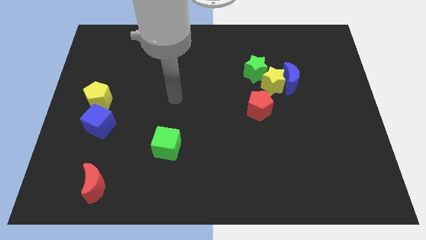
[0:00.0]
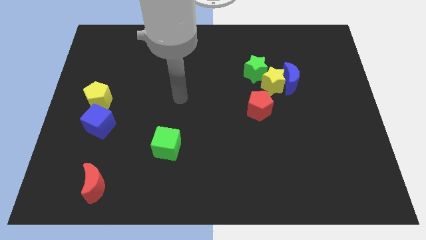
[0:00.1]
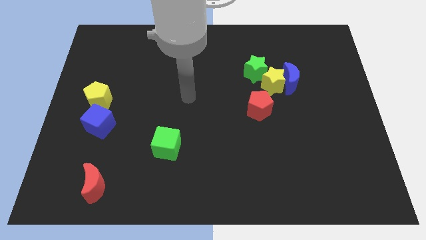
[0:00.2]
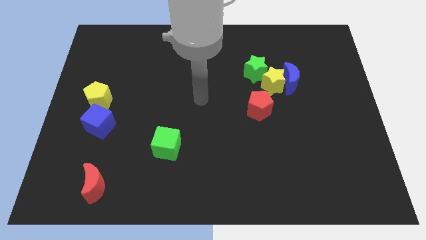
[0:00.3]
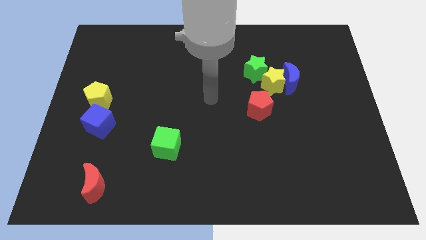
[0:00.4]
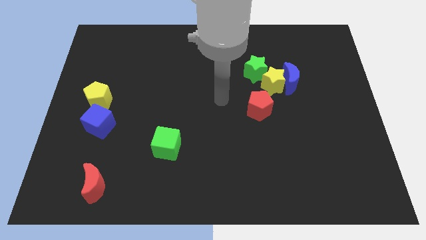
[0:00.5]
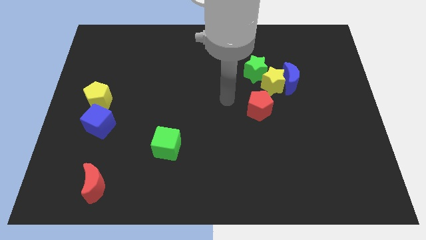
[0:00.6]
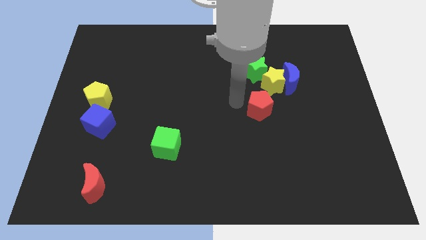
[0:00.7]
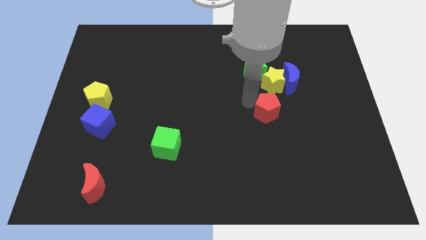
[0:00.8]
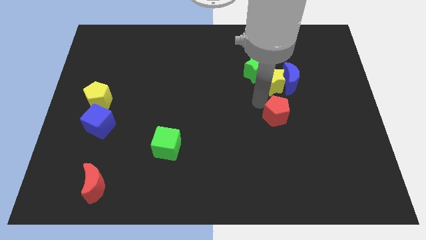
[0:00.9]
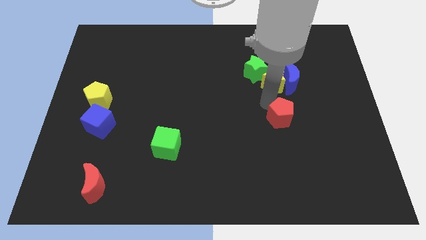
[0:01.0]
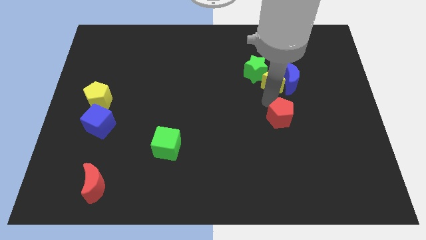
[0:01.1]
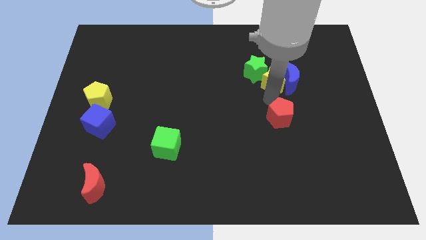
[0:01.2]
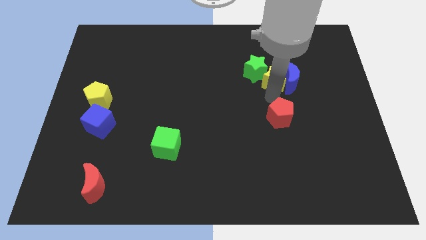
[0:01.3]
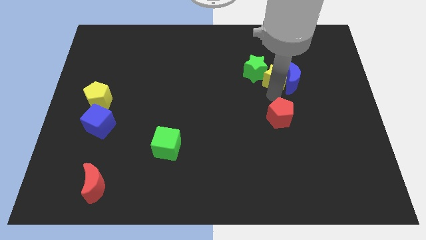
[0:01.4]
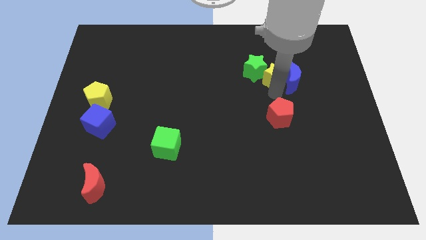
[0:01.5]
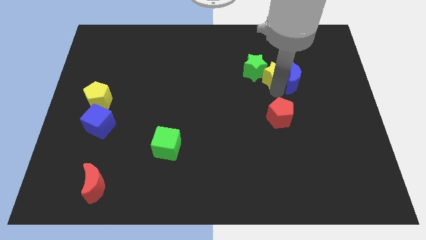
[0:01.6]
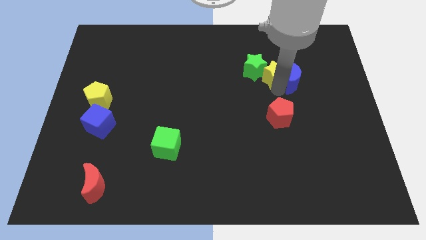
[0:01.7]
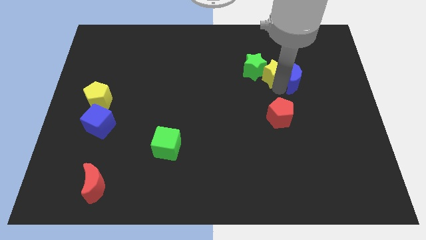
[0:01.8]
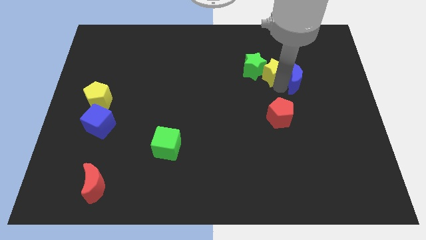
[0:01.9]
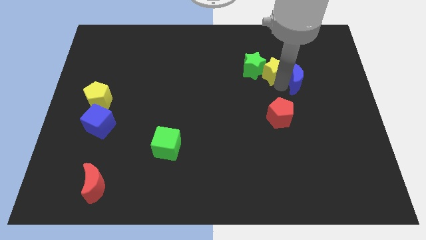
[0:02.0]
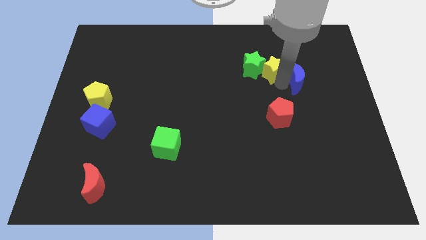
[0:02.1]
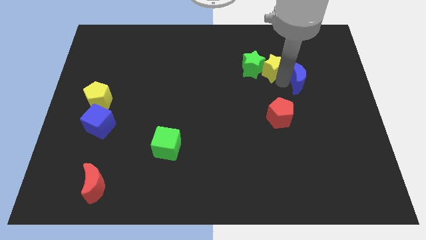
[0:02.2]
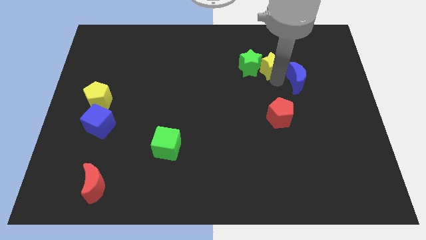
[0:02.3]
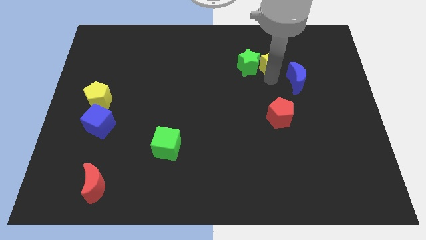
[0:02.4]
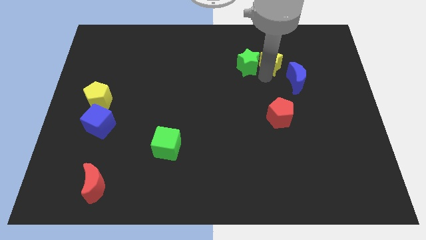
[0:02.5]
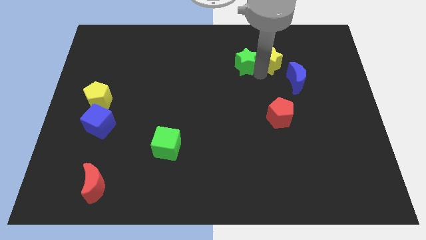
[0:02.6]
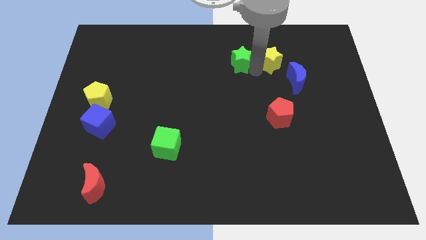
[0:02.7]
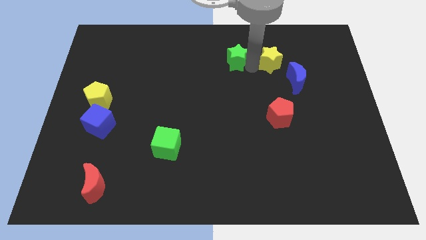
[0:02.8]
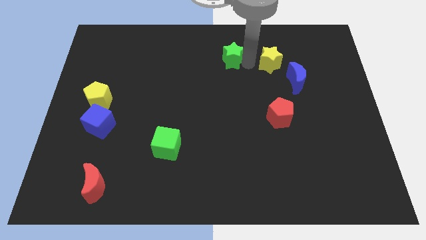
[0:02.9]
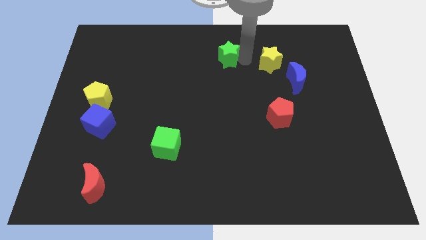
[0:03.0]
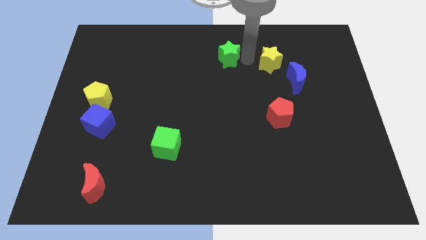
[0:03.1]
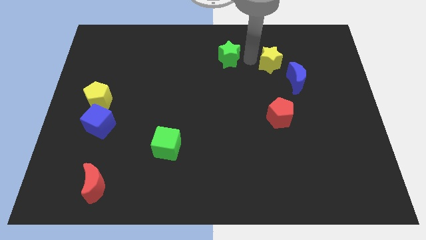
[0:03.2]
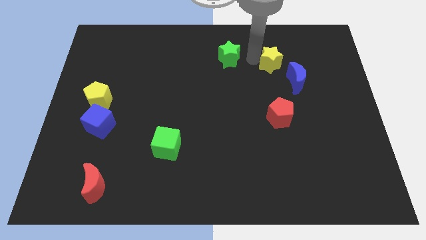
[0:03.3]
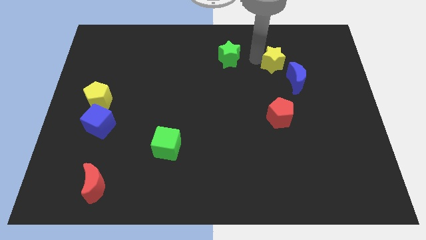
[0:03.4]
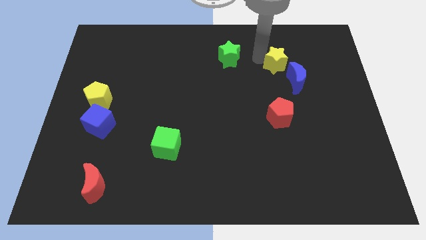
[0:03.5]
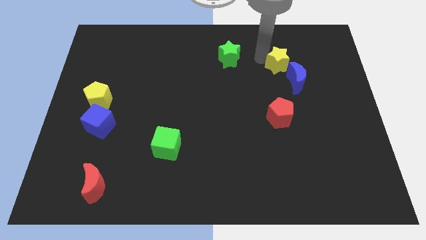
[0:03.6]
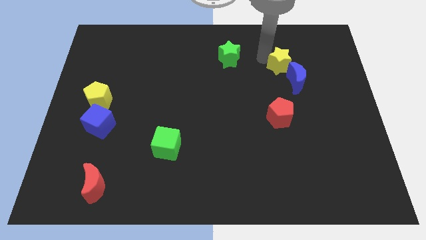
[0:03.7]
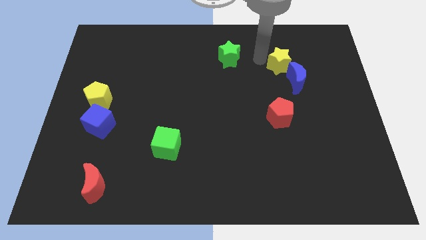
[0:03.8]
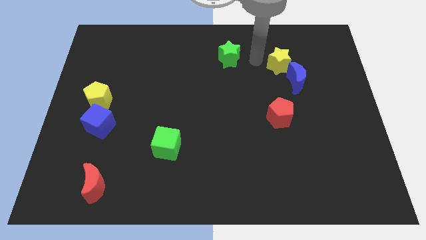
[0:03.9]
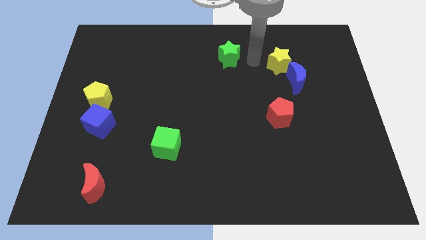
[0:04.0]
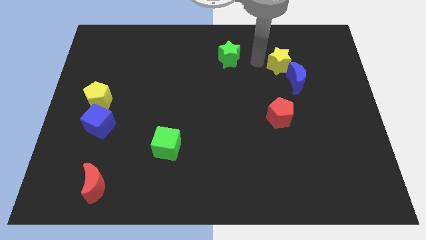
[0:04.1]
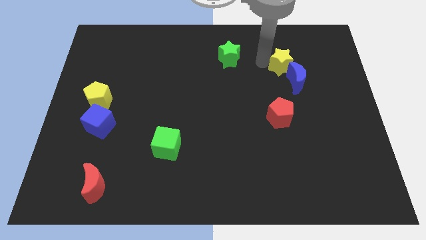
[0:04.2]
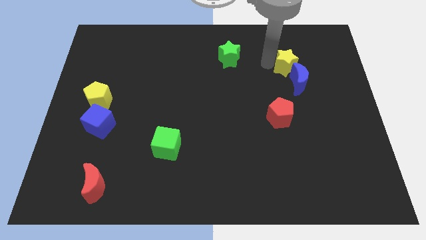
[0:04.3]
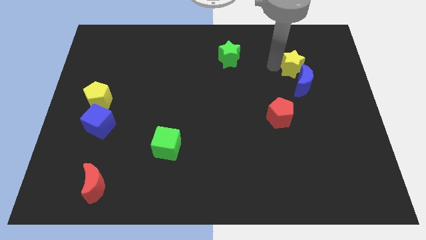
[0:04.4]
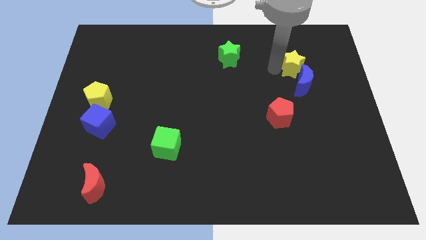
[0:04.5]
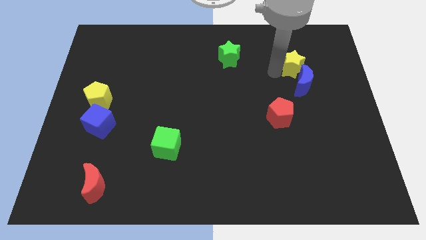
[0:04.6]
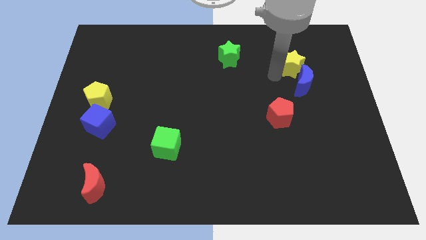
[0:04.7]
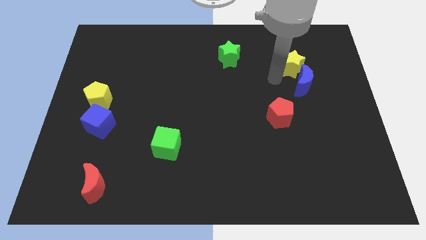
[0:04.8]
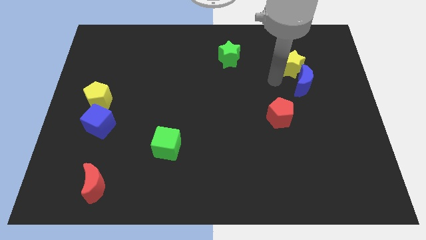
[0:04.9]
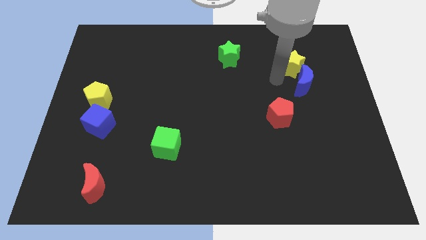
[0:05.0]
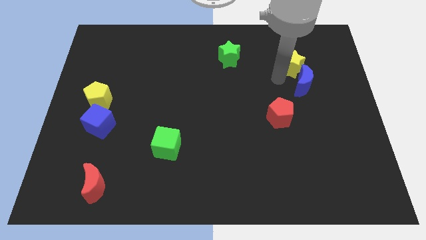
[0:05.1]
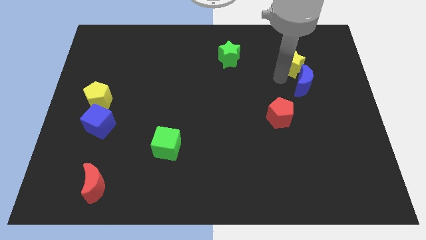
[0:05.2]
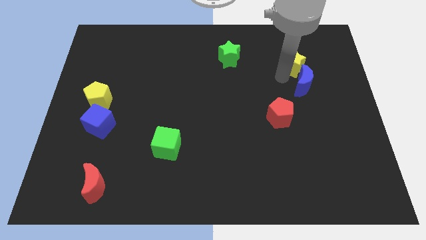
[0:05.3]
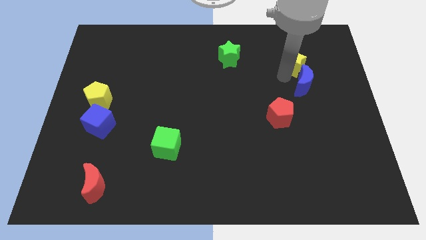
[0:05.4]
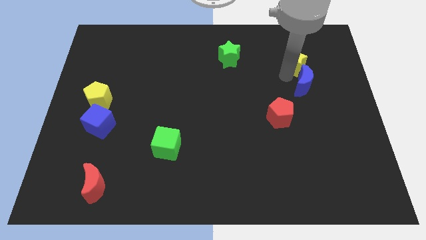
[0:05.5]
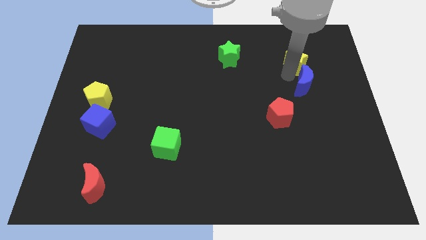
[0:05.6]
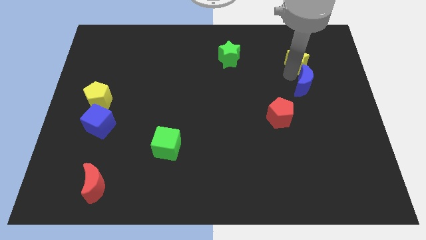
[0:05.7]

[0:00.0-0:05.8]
separate the yellow star from the blue moon, green star, and red pentagon

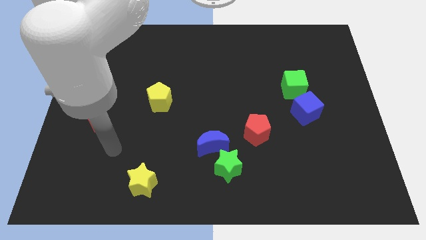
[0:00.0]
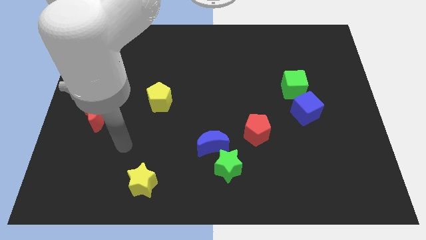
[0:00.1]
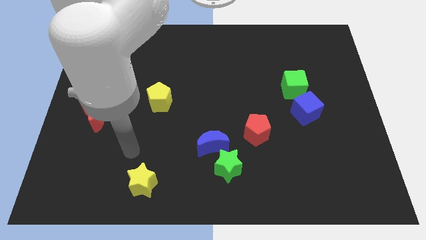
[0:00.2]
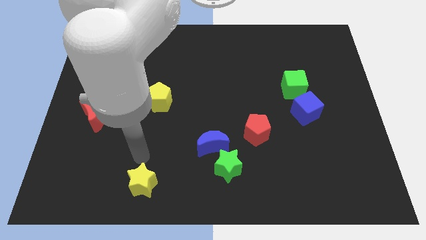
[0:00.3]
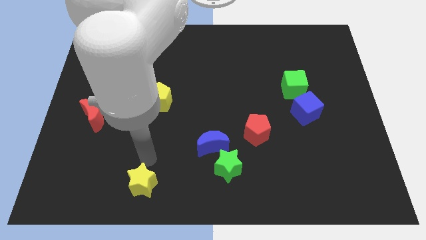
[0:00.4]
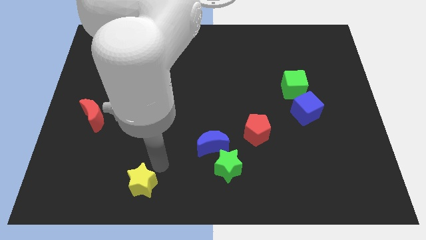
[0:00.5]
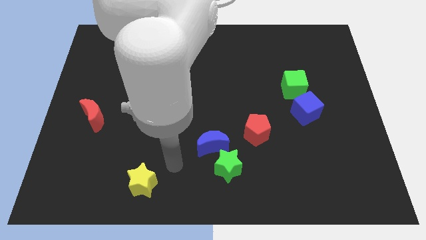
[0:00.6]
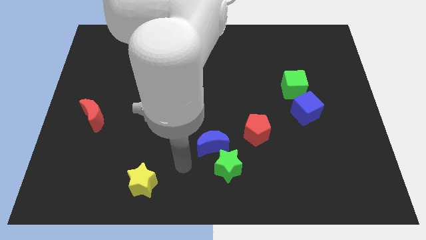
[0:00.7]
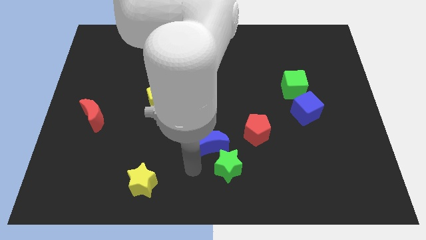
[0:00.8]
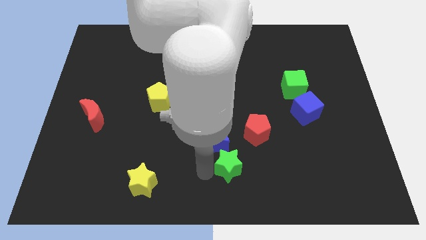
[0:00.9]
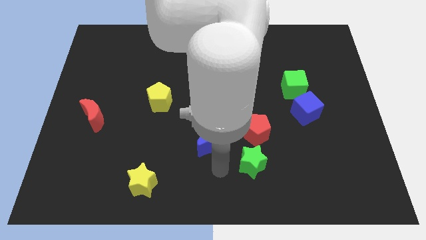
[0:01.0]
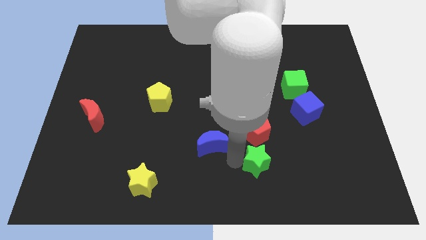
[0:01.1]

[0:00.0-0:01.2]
separate the blue moon from the green star

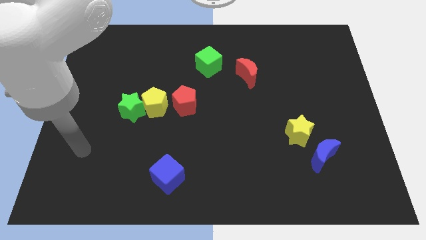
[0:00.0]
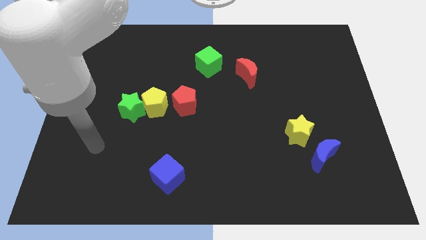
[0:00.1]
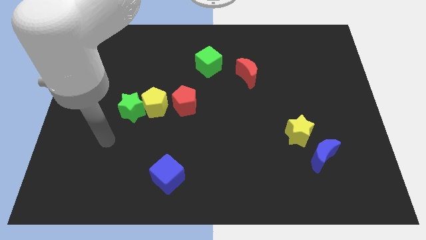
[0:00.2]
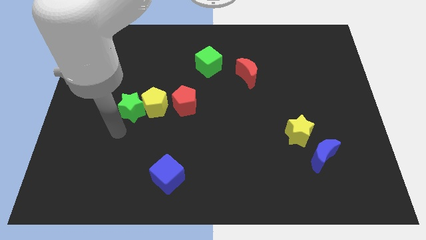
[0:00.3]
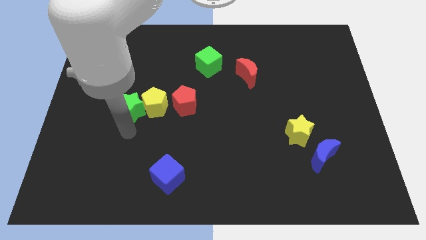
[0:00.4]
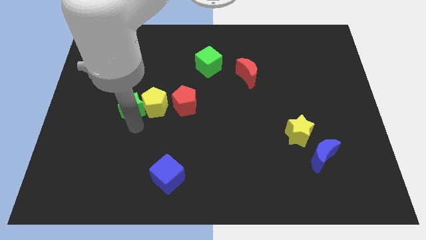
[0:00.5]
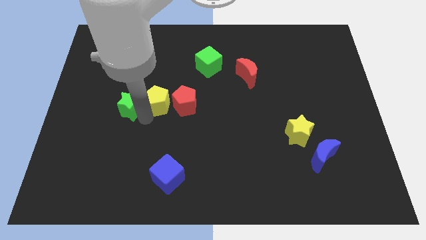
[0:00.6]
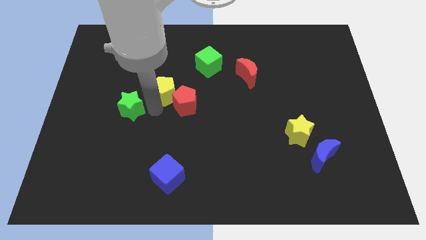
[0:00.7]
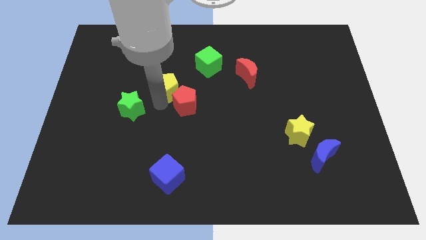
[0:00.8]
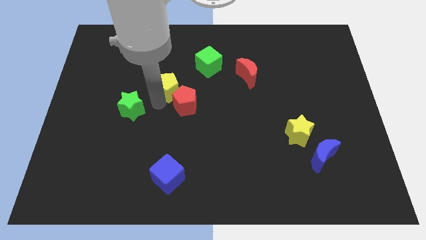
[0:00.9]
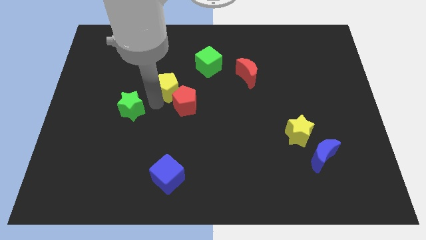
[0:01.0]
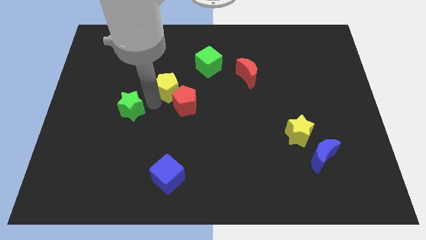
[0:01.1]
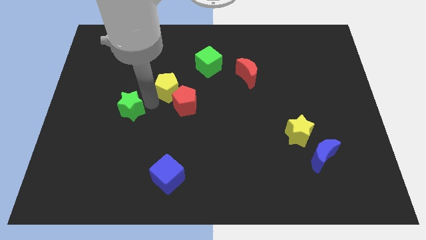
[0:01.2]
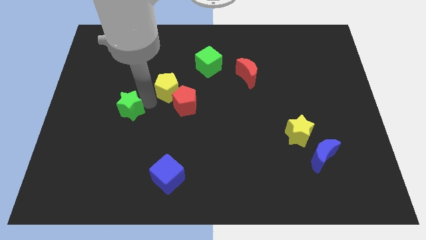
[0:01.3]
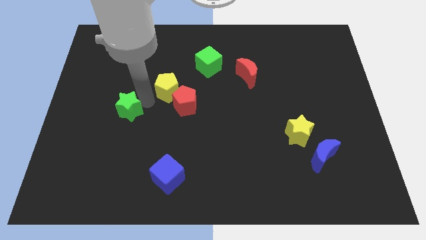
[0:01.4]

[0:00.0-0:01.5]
pull the green star apart from the yellow pentagon

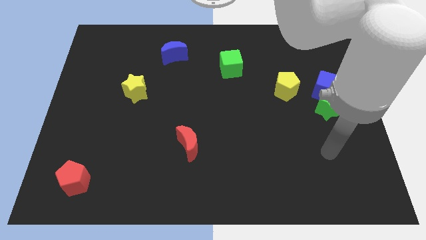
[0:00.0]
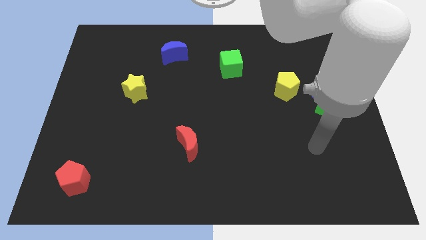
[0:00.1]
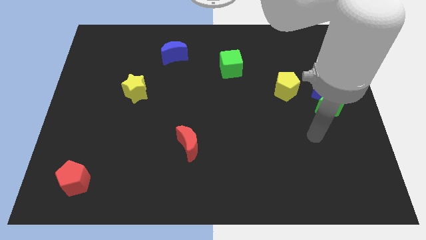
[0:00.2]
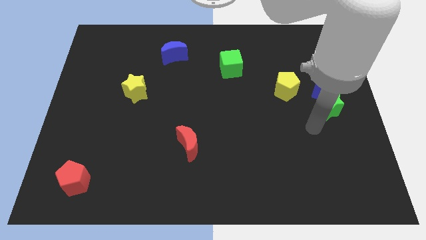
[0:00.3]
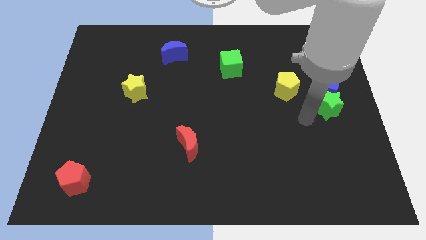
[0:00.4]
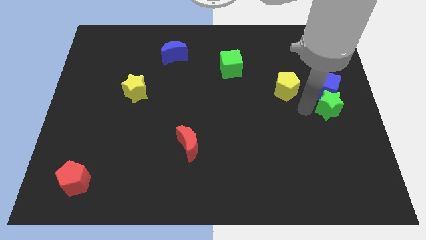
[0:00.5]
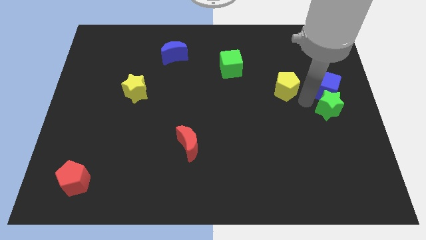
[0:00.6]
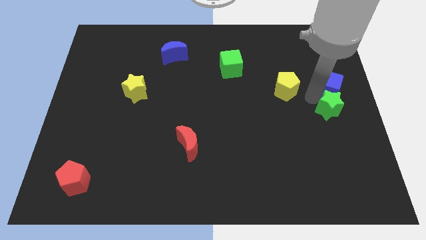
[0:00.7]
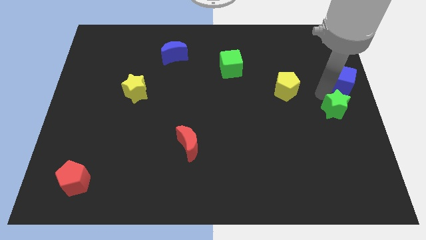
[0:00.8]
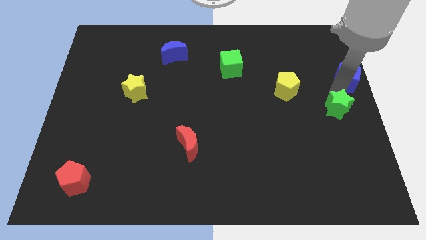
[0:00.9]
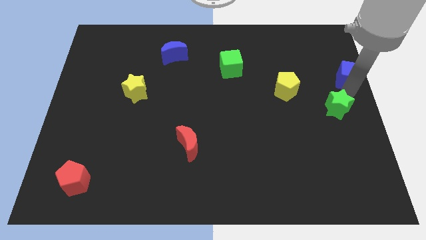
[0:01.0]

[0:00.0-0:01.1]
pull the green star apart from the blue cube
